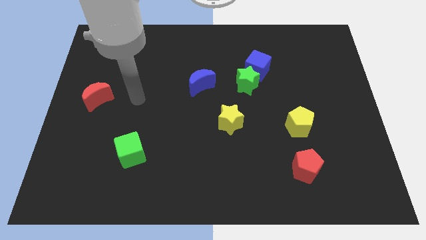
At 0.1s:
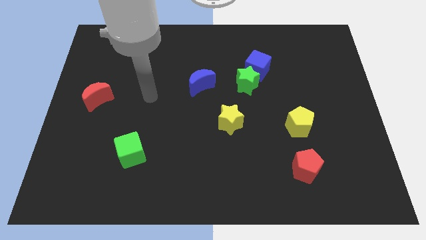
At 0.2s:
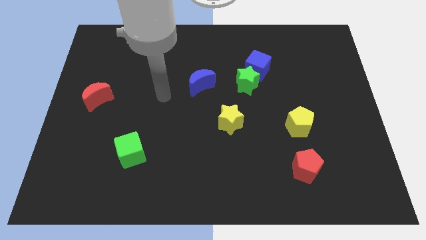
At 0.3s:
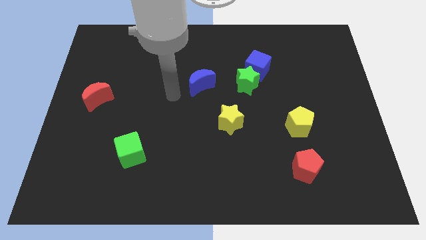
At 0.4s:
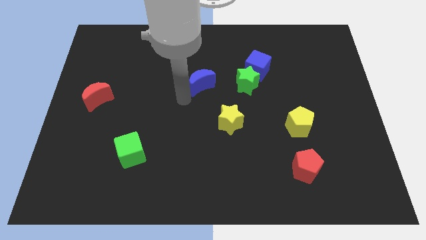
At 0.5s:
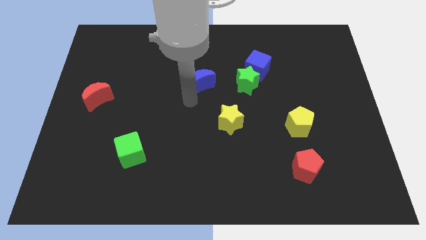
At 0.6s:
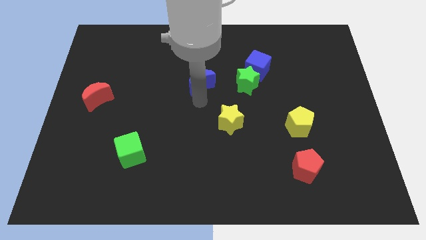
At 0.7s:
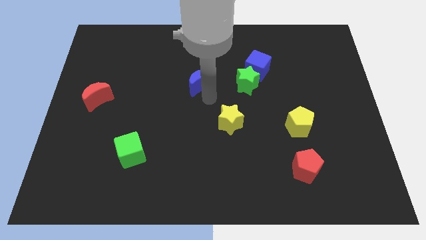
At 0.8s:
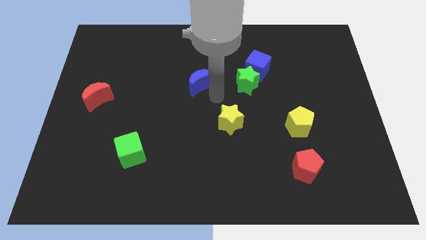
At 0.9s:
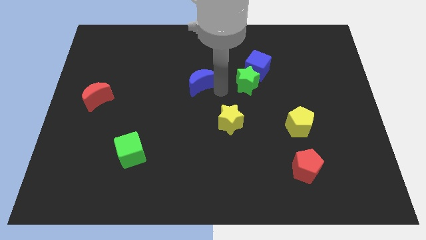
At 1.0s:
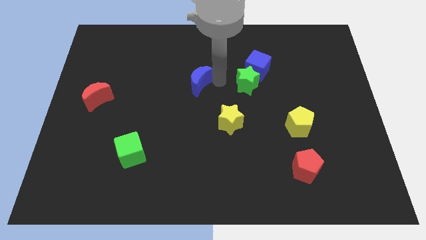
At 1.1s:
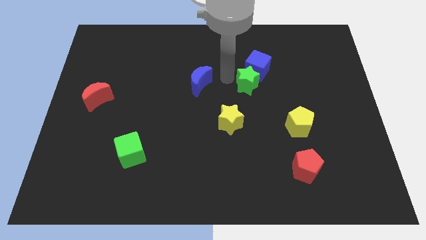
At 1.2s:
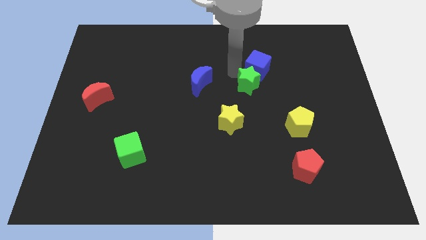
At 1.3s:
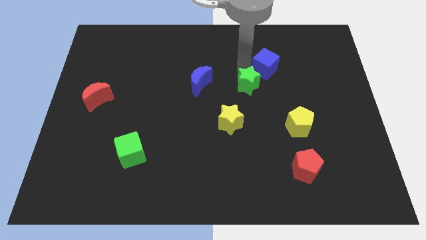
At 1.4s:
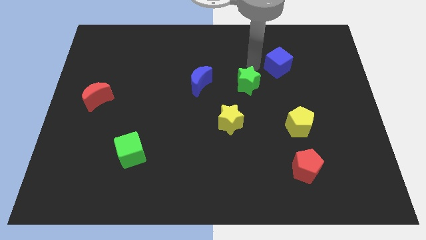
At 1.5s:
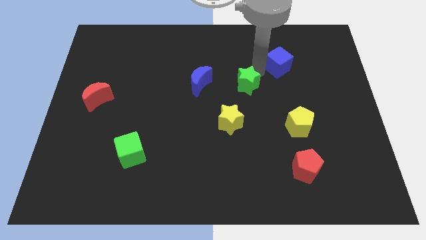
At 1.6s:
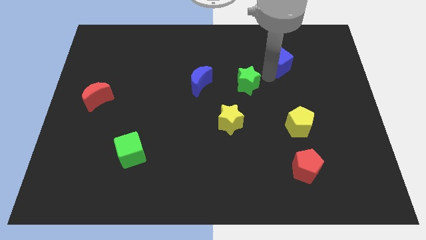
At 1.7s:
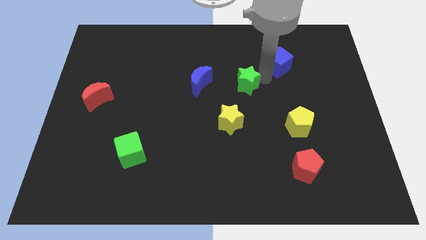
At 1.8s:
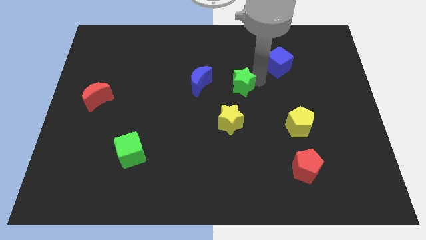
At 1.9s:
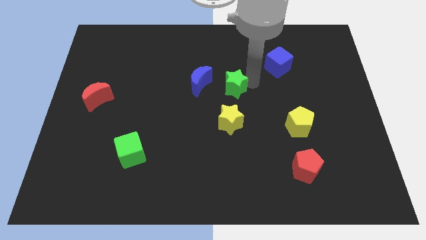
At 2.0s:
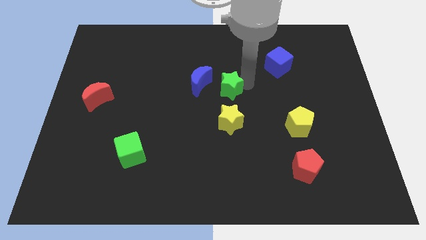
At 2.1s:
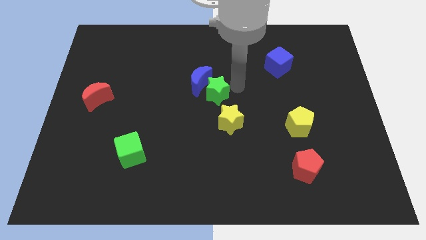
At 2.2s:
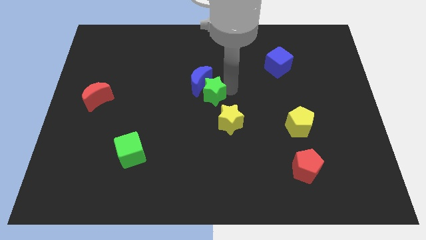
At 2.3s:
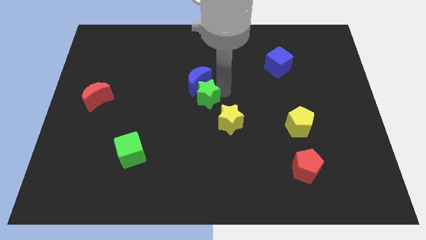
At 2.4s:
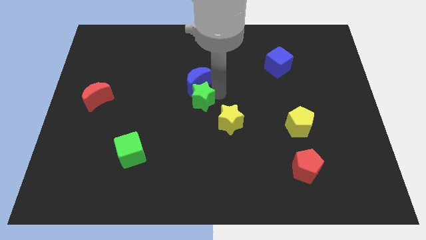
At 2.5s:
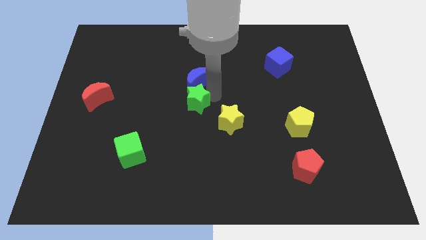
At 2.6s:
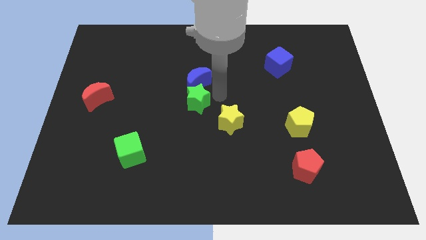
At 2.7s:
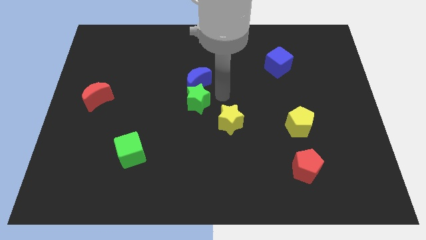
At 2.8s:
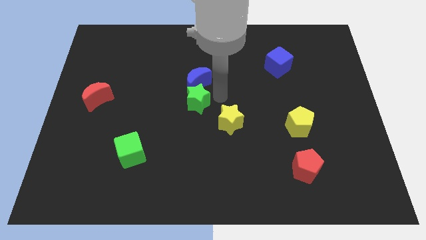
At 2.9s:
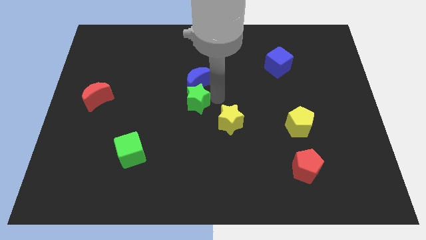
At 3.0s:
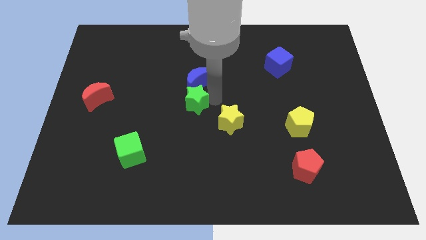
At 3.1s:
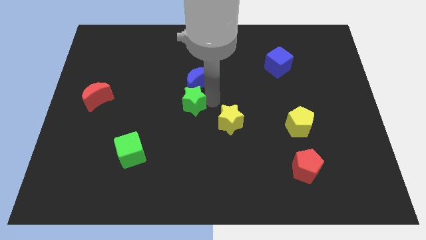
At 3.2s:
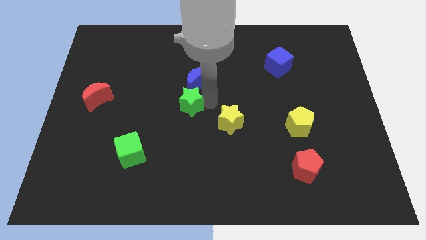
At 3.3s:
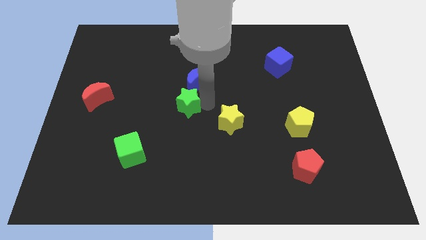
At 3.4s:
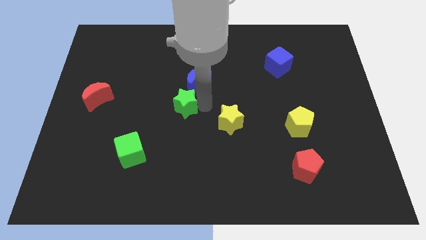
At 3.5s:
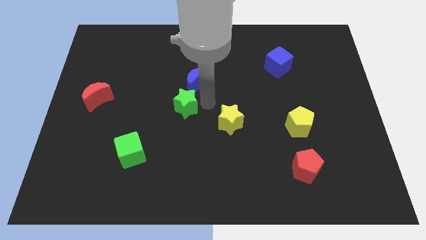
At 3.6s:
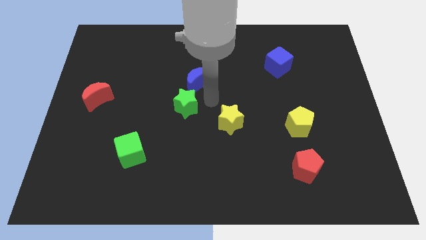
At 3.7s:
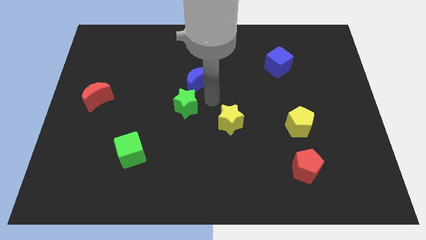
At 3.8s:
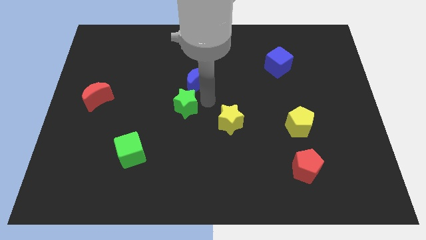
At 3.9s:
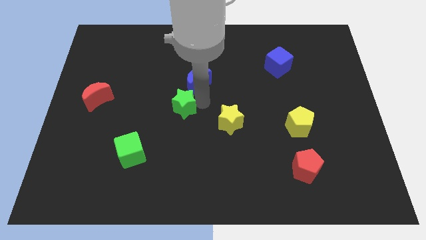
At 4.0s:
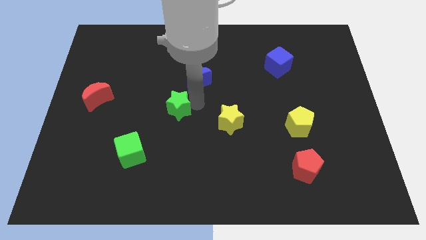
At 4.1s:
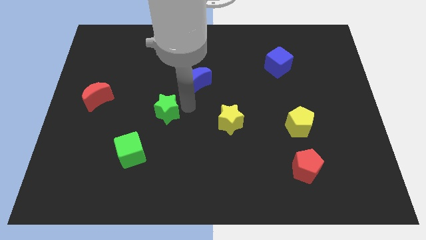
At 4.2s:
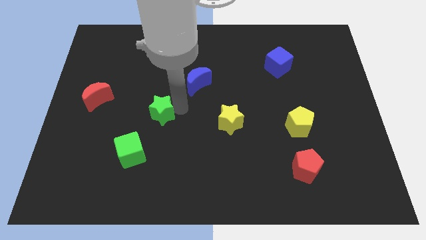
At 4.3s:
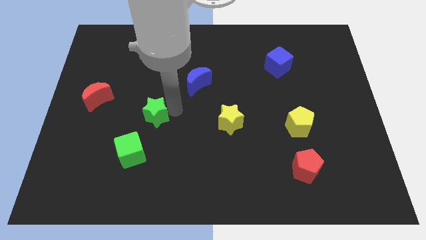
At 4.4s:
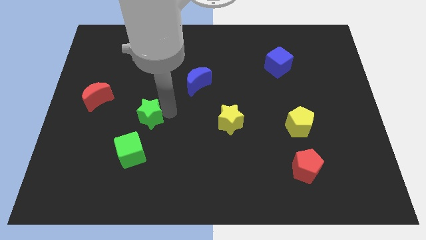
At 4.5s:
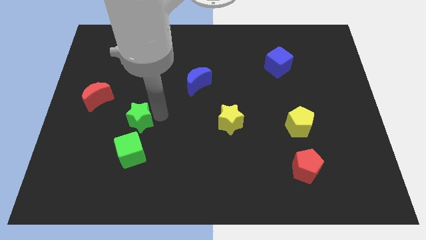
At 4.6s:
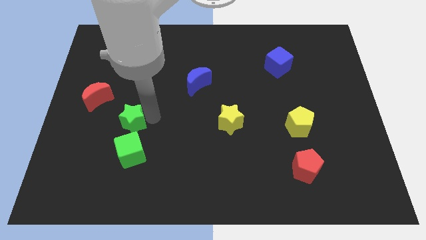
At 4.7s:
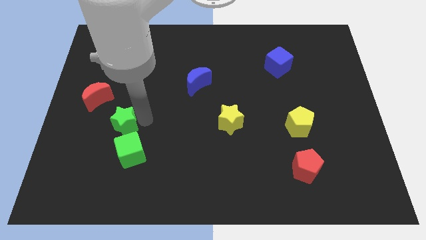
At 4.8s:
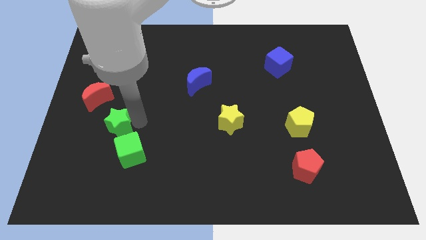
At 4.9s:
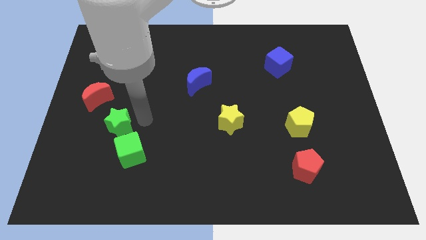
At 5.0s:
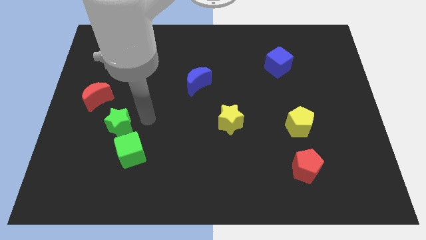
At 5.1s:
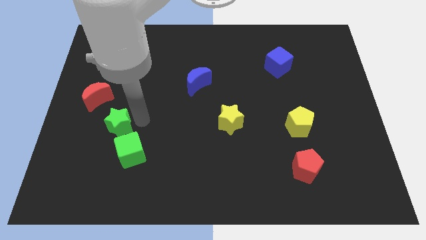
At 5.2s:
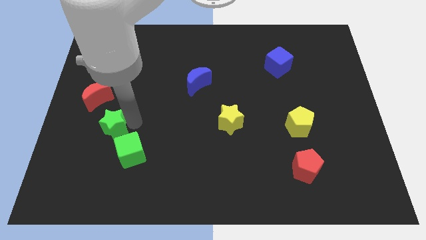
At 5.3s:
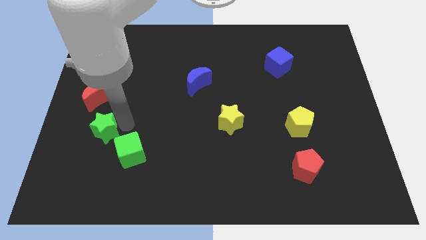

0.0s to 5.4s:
push the green star to the bottom of the red moon

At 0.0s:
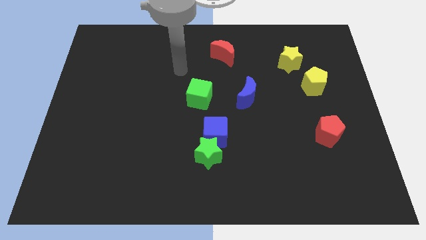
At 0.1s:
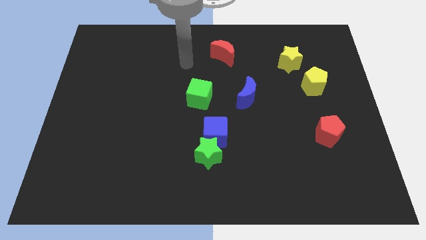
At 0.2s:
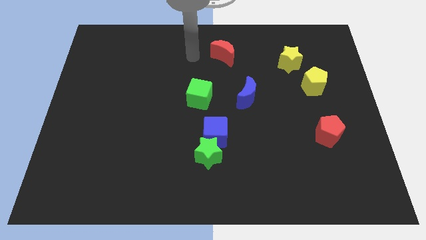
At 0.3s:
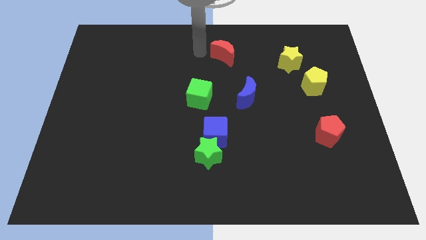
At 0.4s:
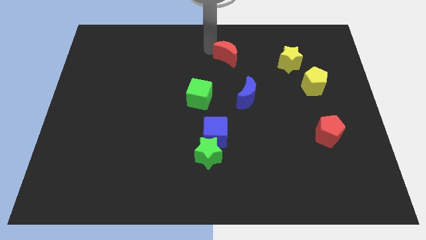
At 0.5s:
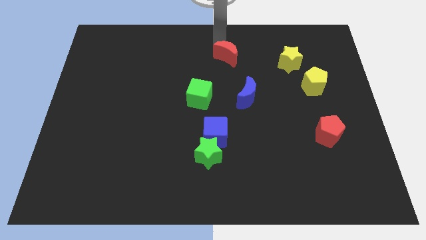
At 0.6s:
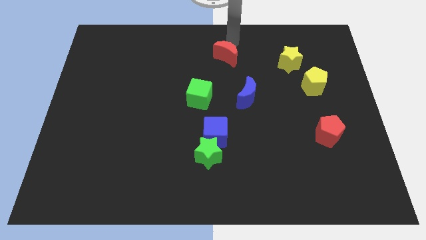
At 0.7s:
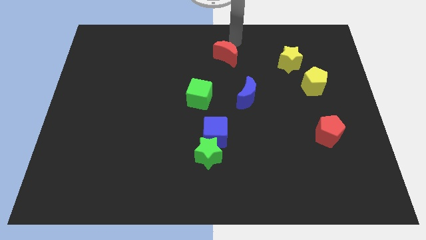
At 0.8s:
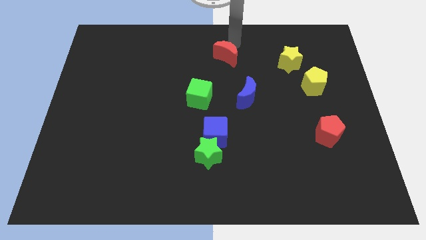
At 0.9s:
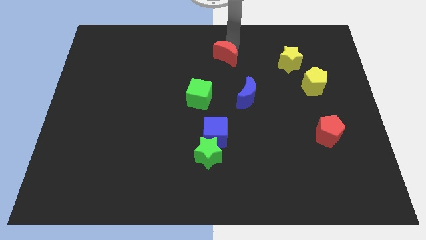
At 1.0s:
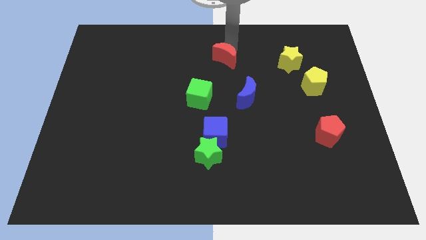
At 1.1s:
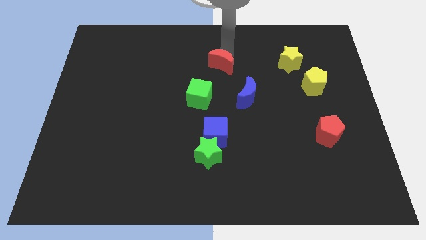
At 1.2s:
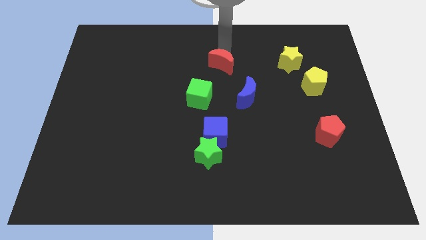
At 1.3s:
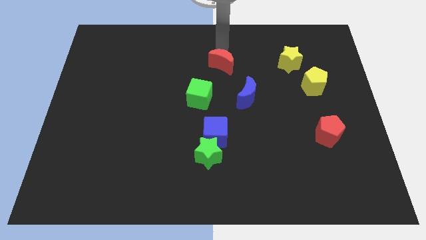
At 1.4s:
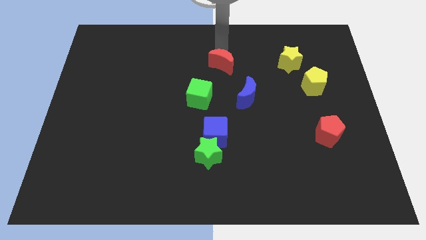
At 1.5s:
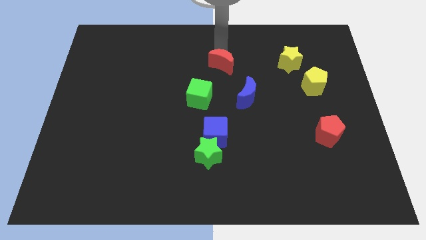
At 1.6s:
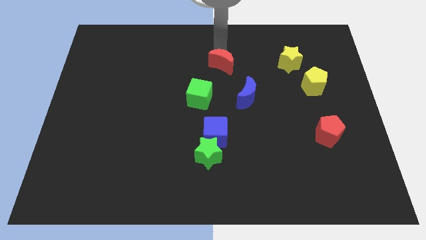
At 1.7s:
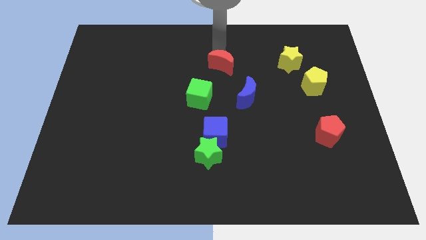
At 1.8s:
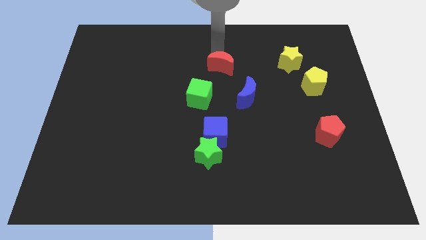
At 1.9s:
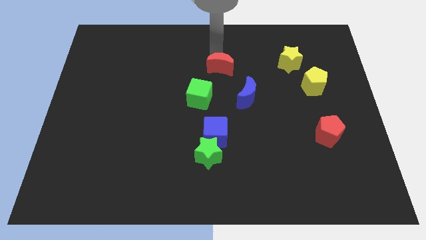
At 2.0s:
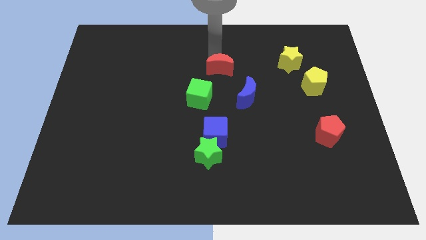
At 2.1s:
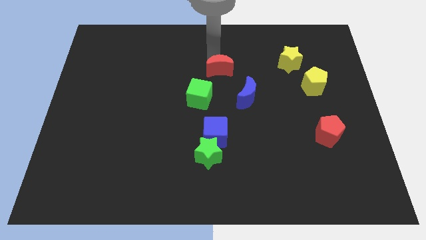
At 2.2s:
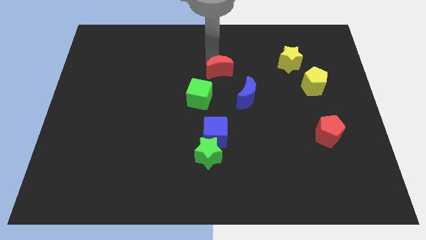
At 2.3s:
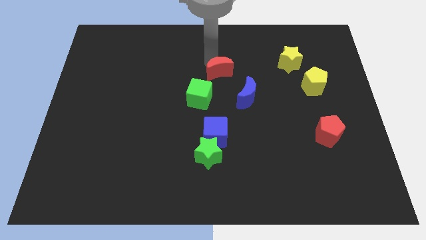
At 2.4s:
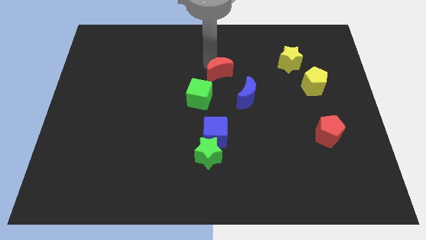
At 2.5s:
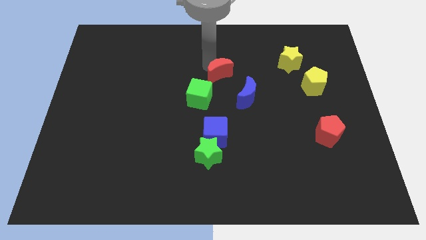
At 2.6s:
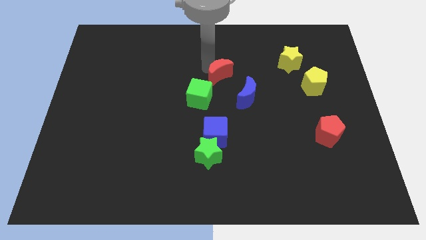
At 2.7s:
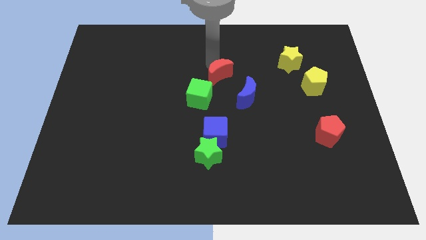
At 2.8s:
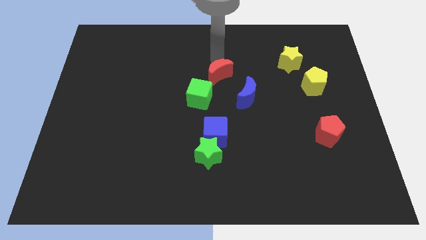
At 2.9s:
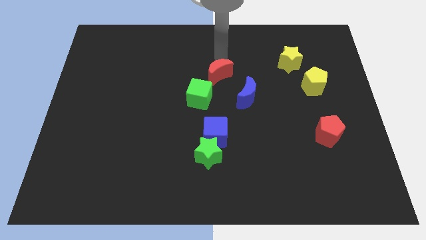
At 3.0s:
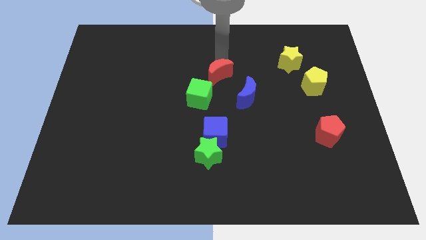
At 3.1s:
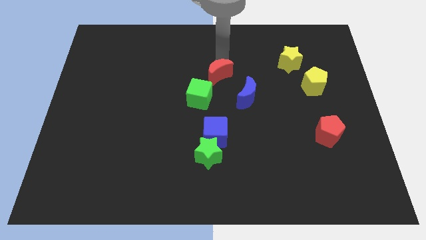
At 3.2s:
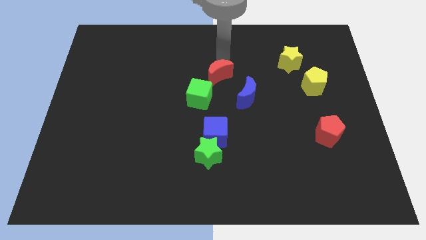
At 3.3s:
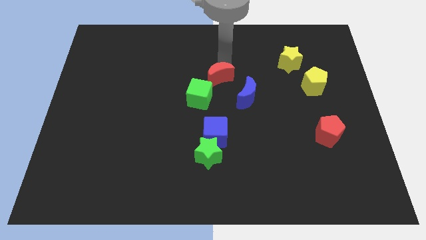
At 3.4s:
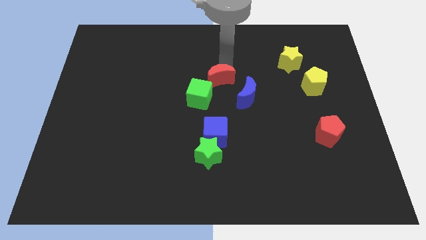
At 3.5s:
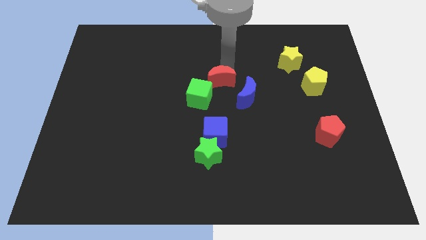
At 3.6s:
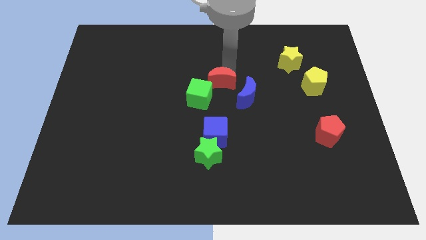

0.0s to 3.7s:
push the red moon to the top of the blue cube
